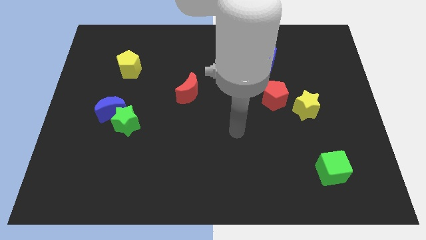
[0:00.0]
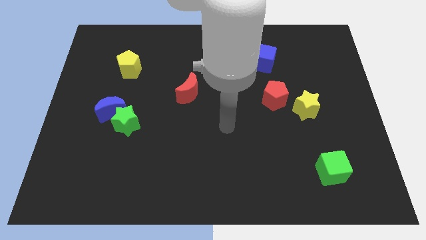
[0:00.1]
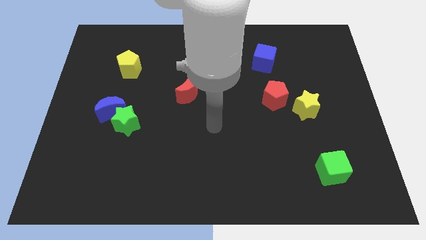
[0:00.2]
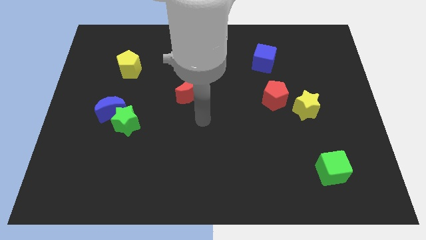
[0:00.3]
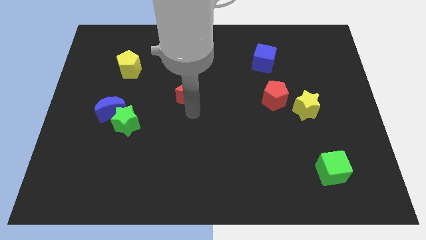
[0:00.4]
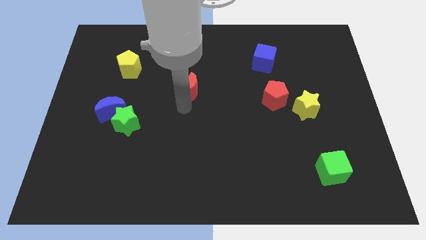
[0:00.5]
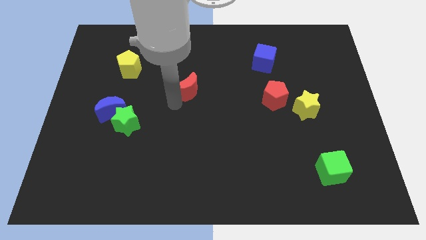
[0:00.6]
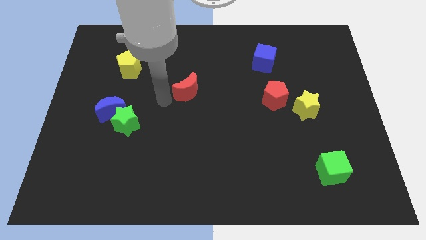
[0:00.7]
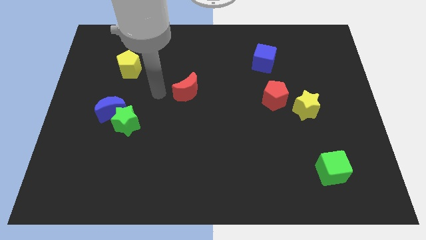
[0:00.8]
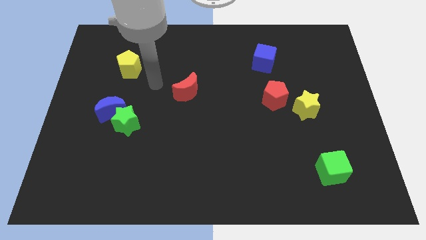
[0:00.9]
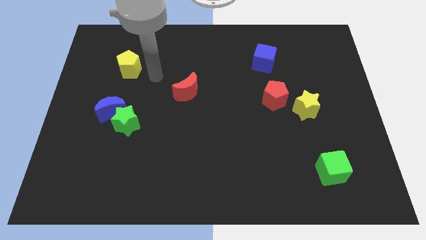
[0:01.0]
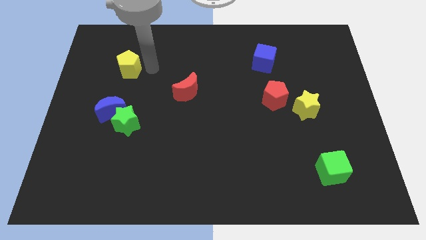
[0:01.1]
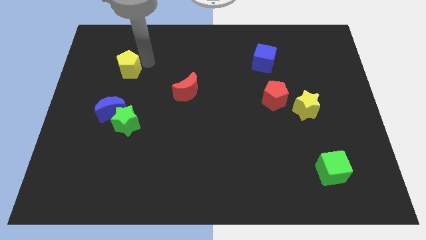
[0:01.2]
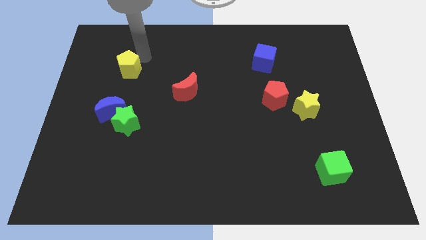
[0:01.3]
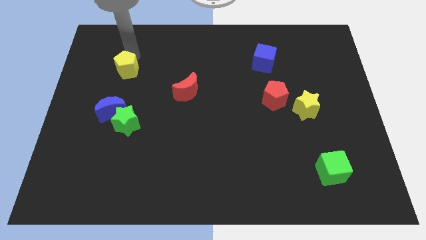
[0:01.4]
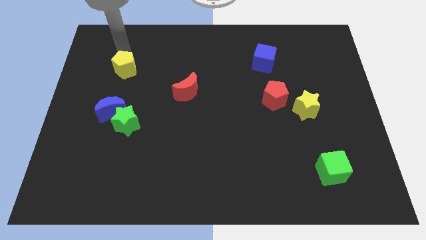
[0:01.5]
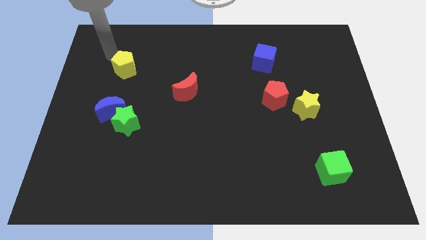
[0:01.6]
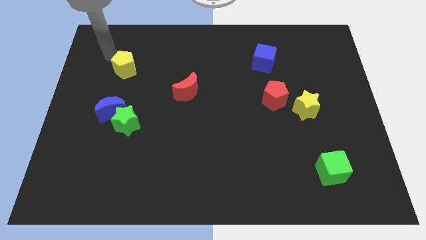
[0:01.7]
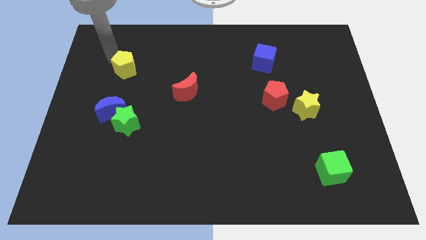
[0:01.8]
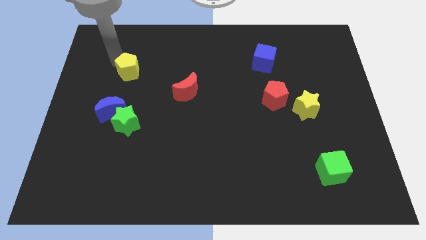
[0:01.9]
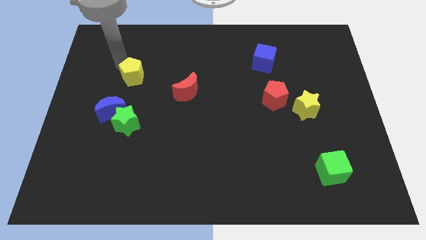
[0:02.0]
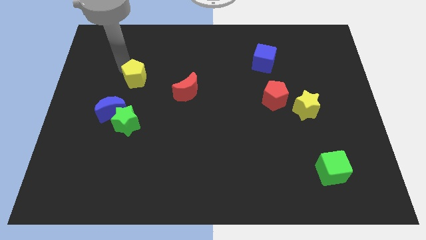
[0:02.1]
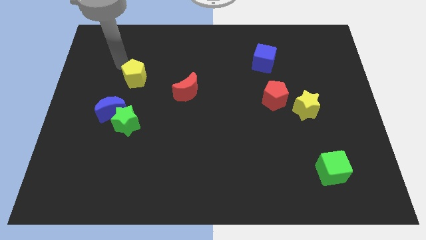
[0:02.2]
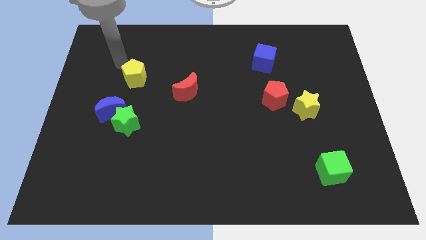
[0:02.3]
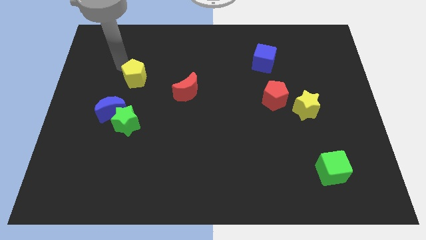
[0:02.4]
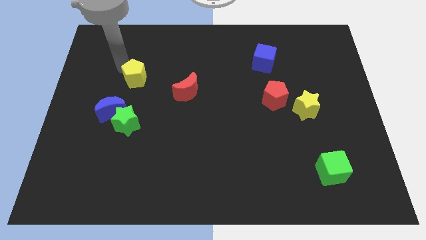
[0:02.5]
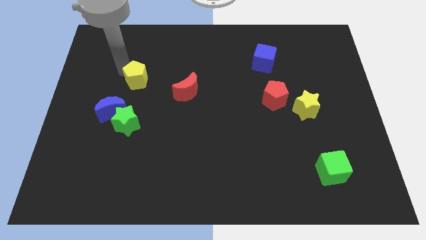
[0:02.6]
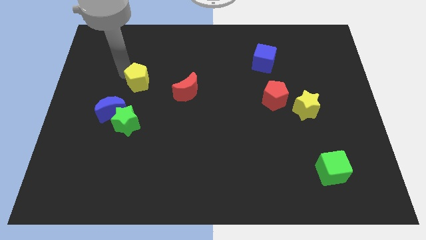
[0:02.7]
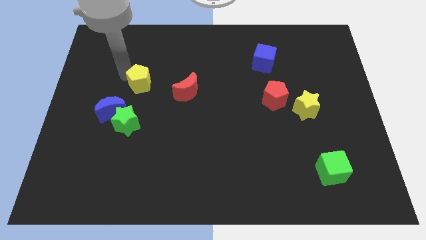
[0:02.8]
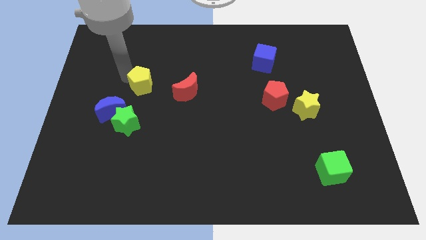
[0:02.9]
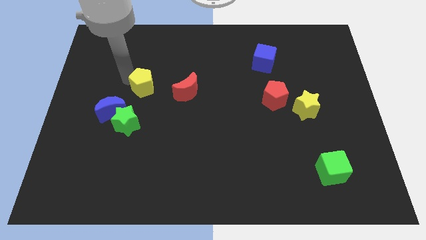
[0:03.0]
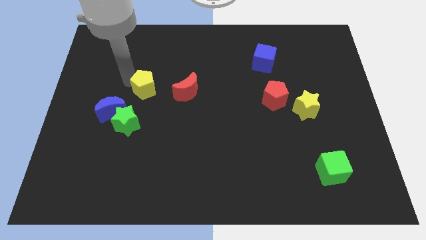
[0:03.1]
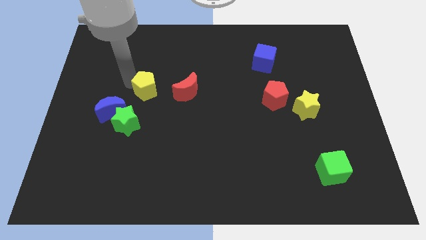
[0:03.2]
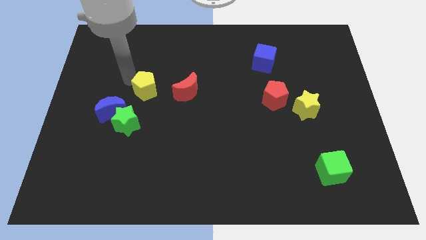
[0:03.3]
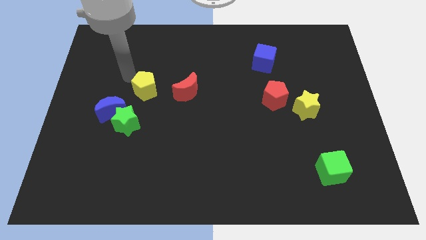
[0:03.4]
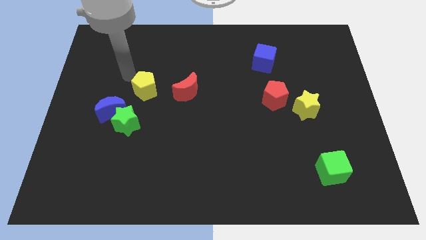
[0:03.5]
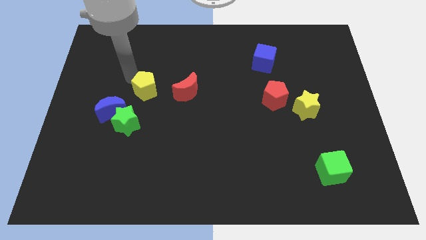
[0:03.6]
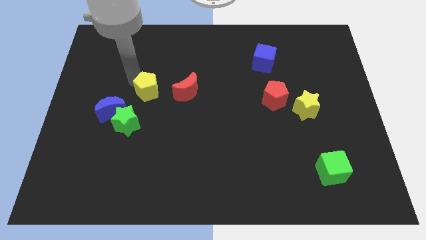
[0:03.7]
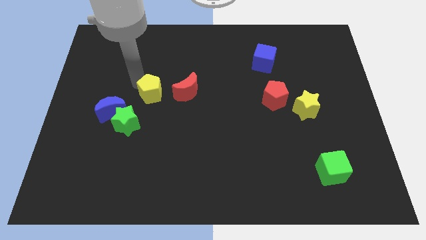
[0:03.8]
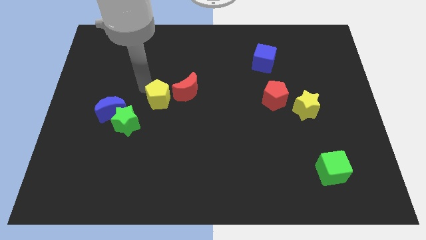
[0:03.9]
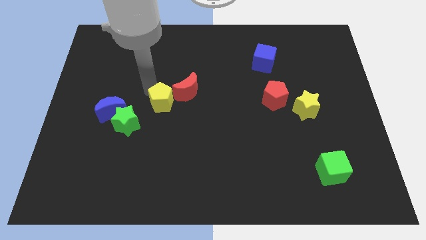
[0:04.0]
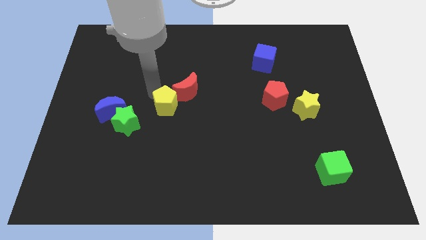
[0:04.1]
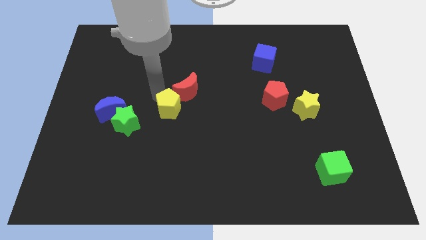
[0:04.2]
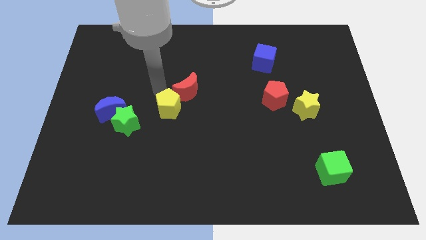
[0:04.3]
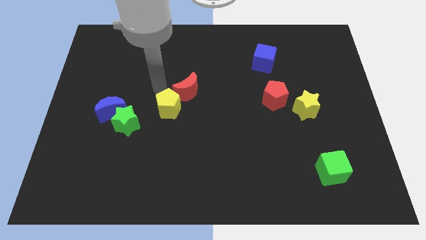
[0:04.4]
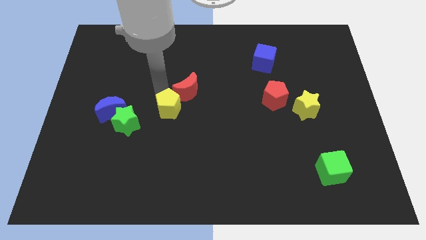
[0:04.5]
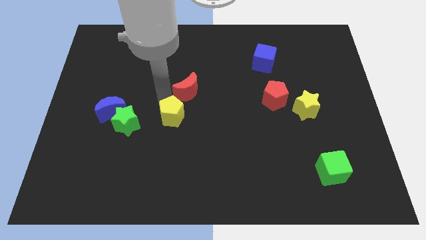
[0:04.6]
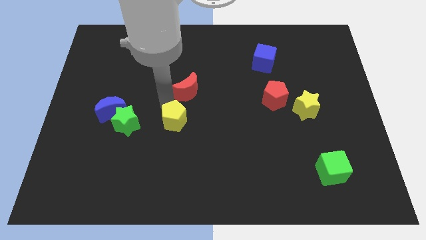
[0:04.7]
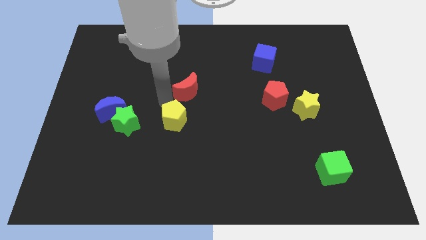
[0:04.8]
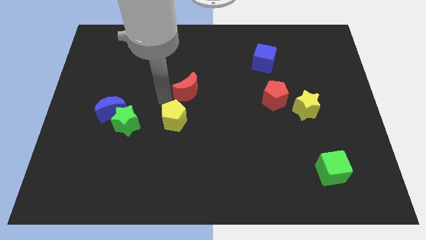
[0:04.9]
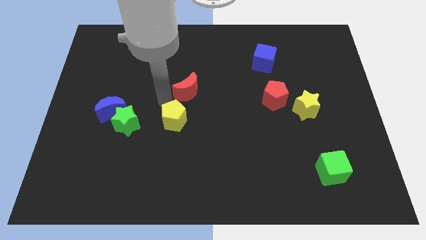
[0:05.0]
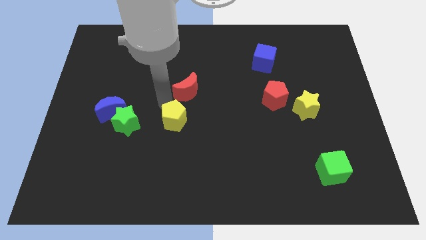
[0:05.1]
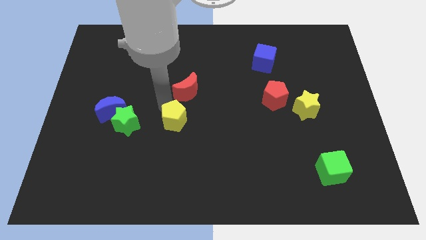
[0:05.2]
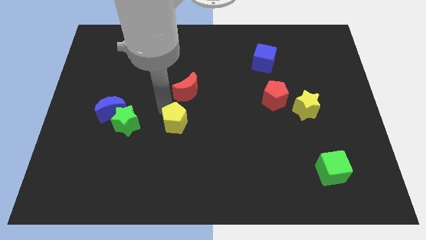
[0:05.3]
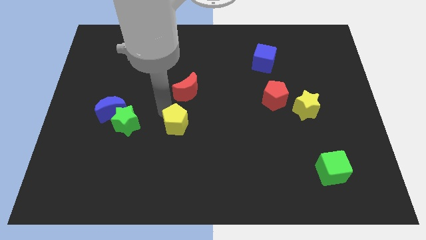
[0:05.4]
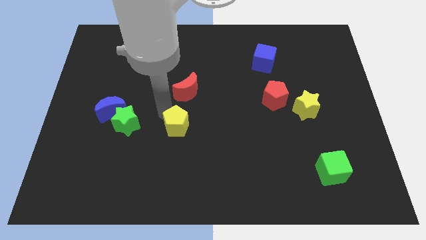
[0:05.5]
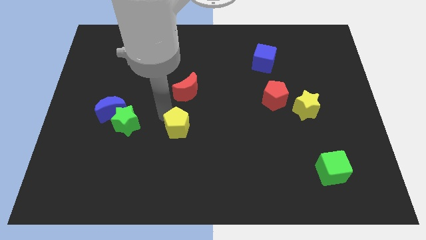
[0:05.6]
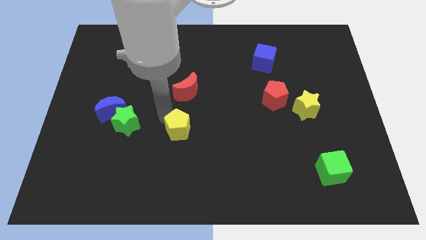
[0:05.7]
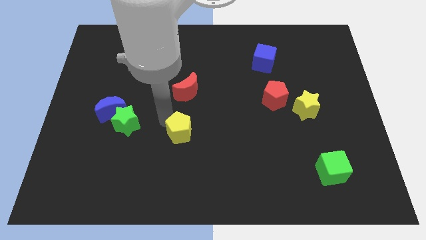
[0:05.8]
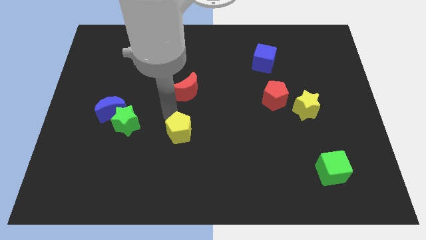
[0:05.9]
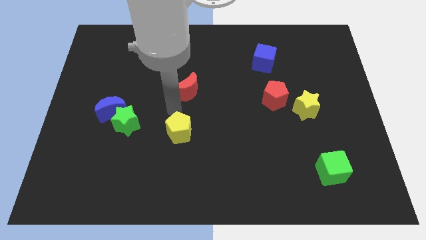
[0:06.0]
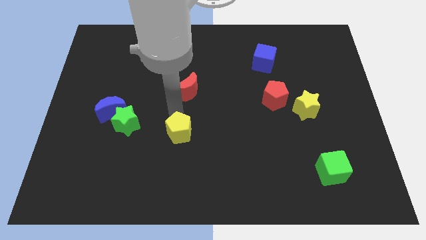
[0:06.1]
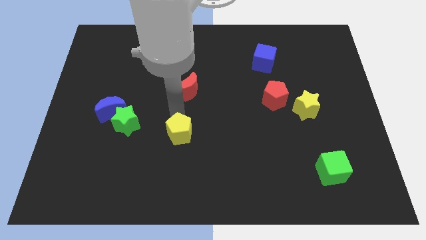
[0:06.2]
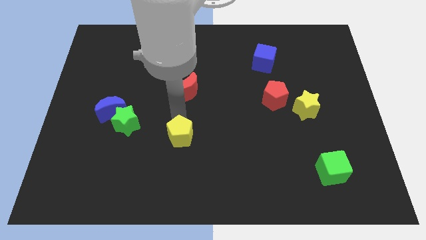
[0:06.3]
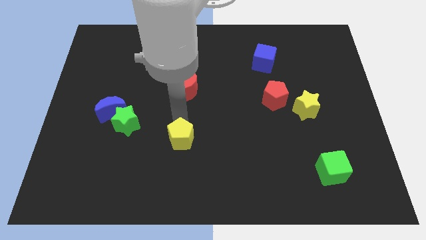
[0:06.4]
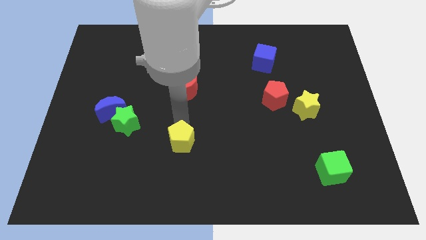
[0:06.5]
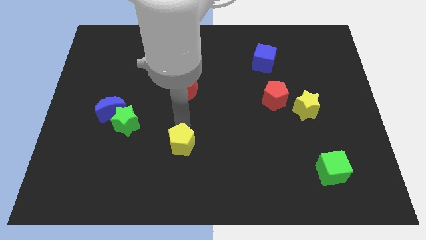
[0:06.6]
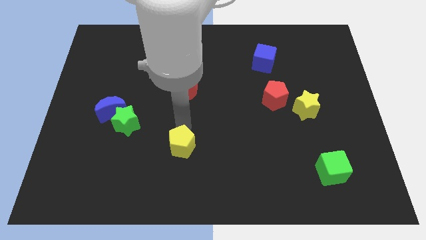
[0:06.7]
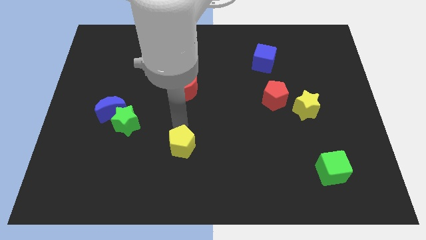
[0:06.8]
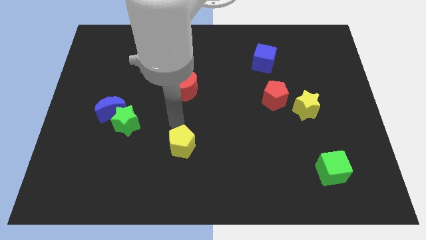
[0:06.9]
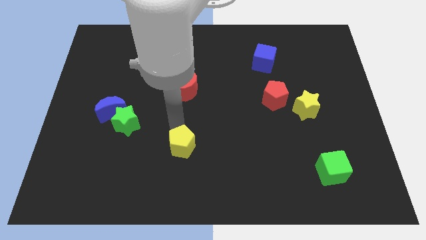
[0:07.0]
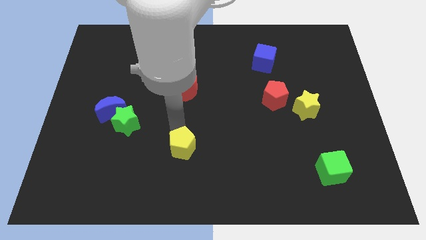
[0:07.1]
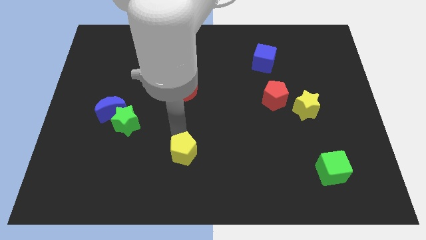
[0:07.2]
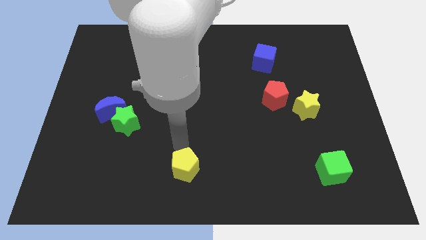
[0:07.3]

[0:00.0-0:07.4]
move the yellow pentagon to the bottom

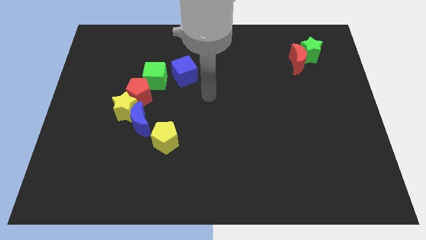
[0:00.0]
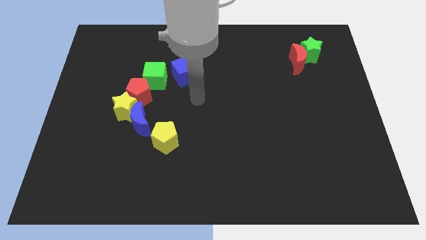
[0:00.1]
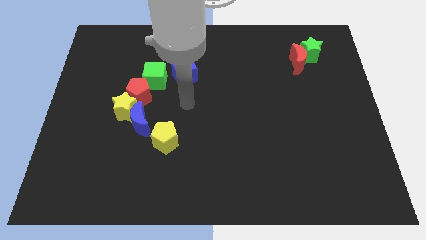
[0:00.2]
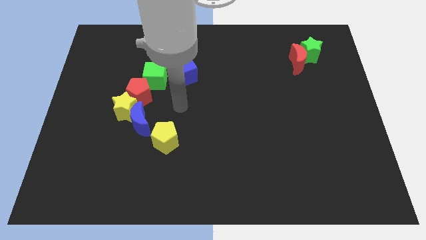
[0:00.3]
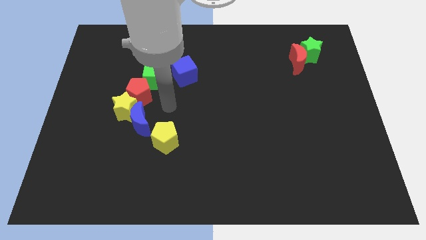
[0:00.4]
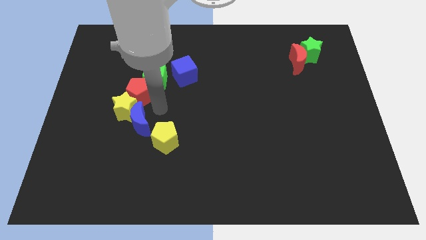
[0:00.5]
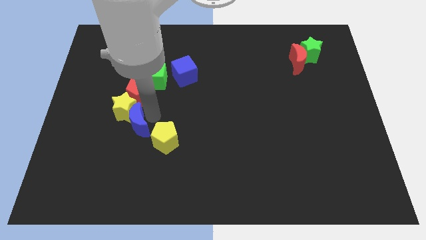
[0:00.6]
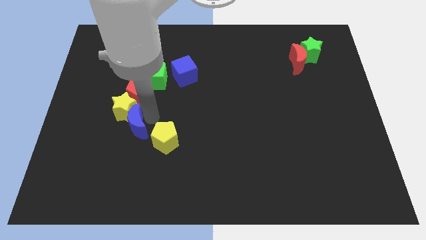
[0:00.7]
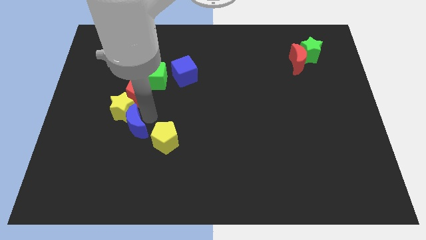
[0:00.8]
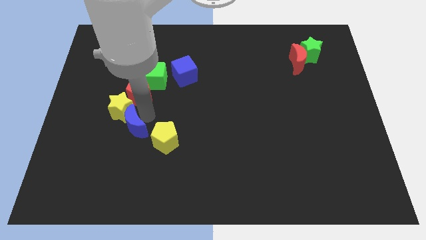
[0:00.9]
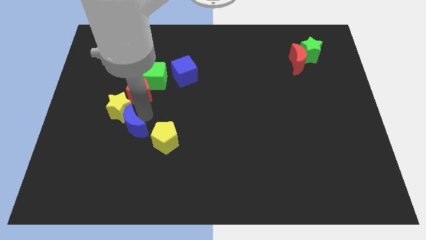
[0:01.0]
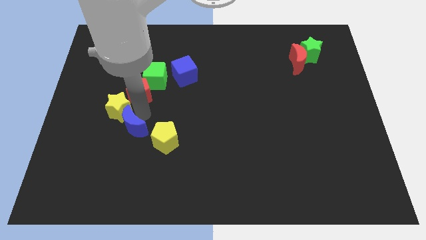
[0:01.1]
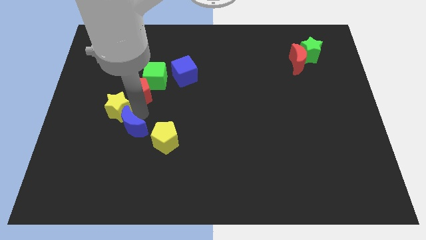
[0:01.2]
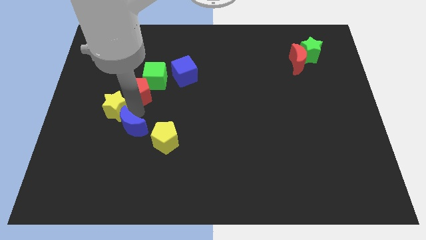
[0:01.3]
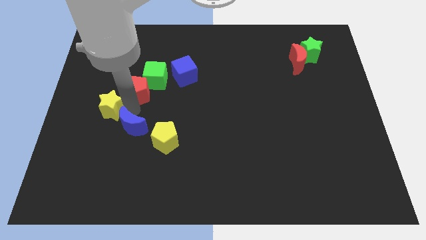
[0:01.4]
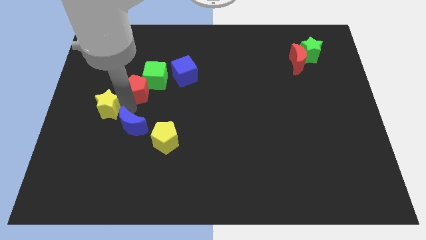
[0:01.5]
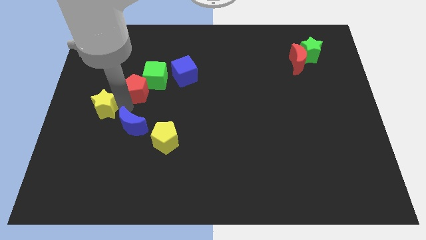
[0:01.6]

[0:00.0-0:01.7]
put the yellow star to the left side of the board
